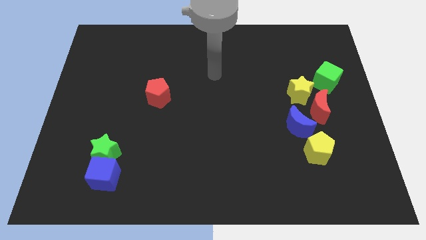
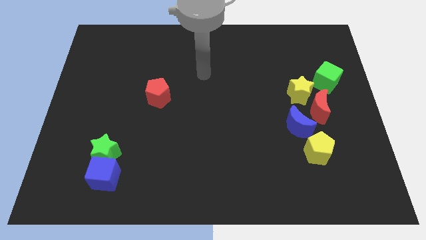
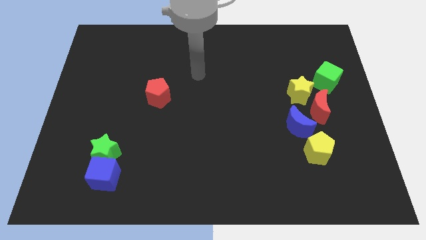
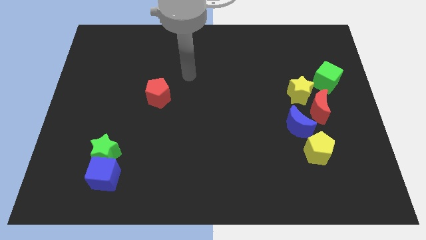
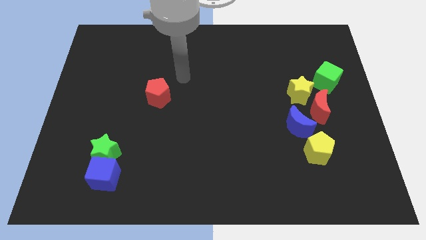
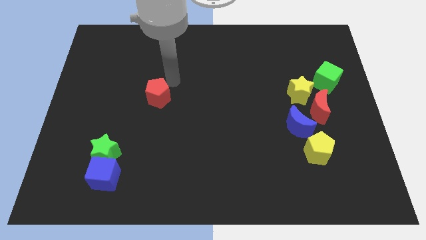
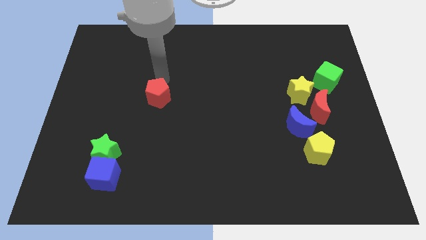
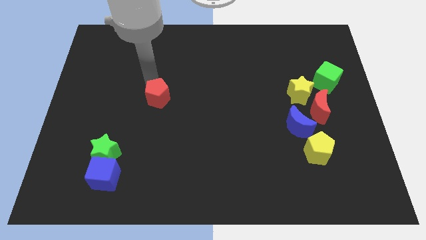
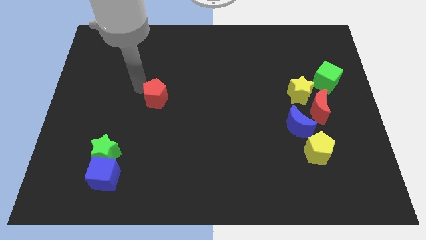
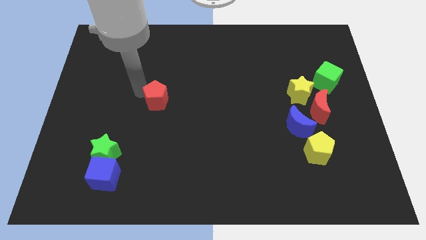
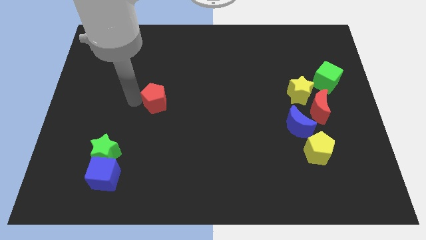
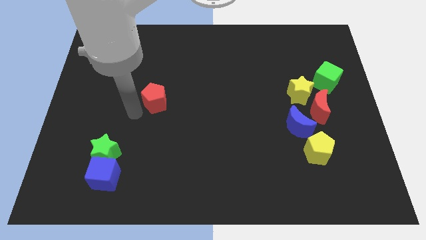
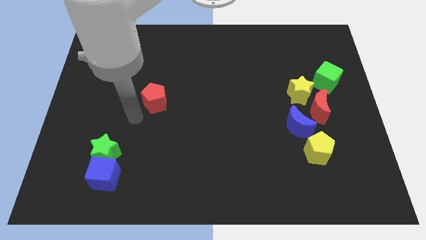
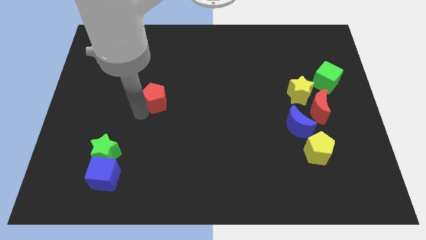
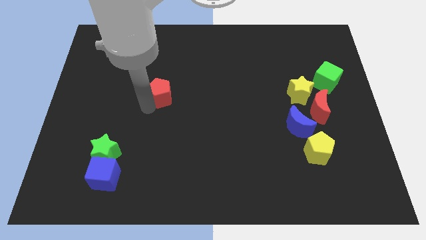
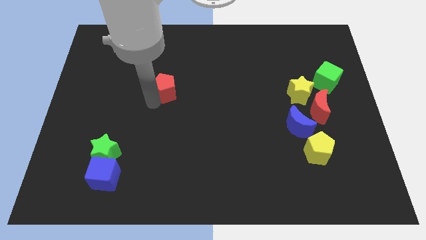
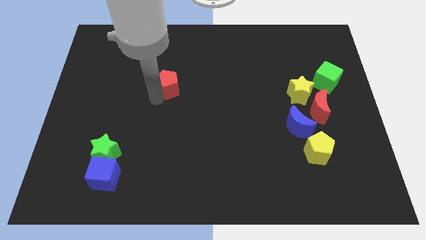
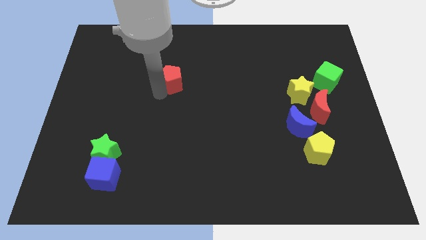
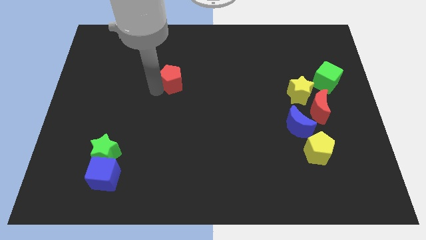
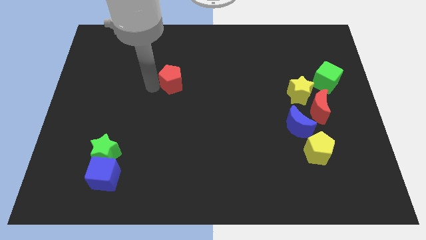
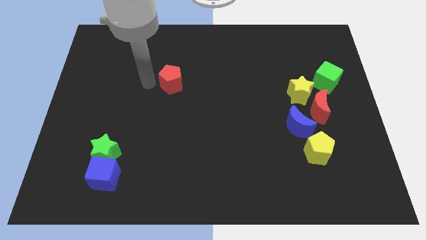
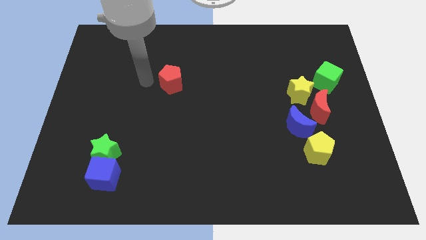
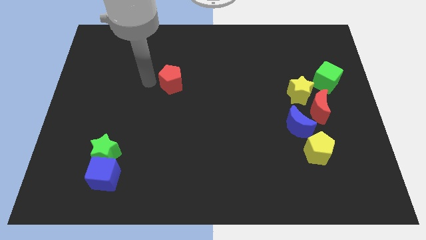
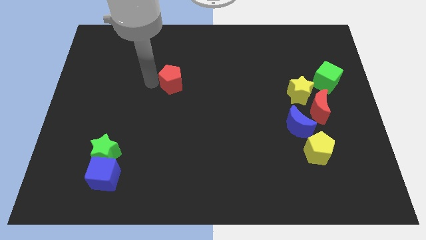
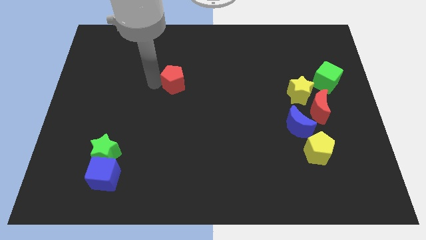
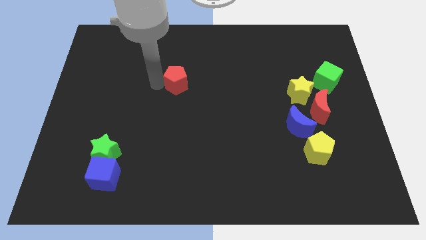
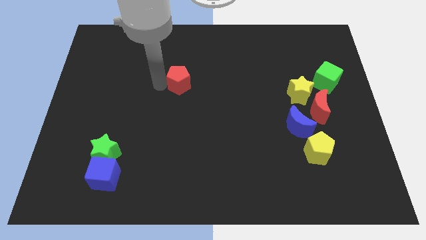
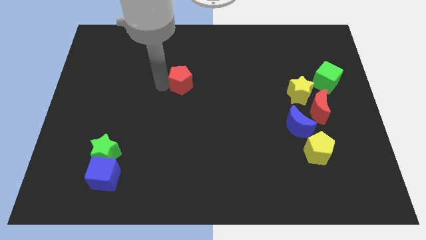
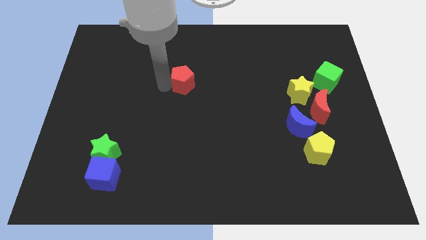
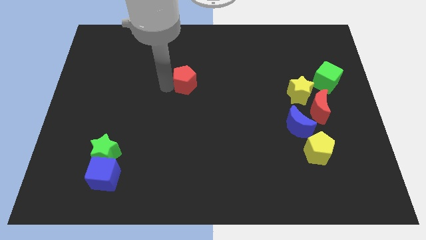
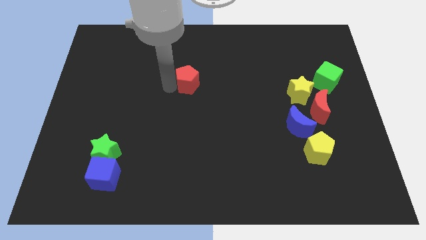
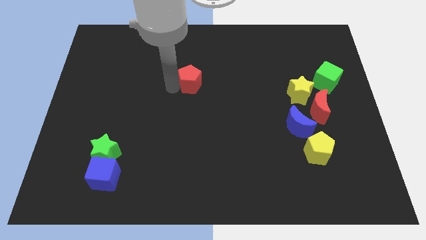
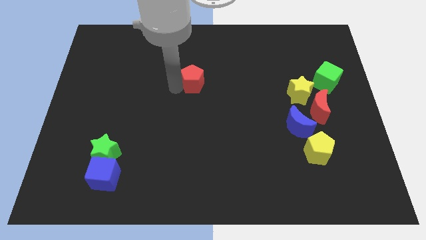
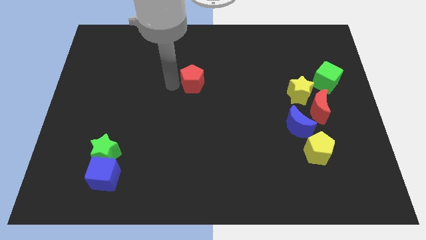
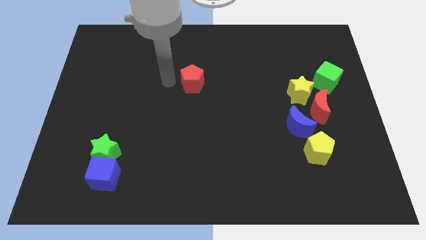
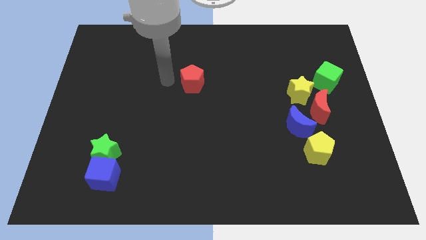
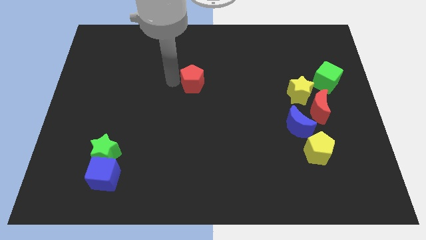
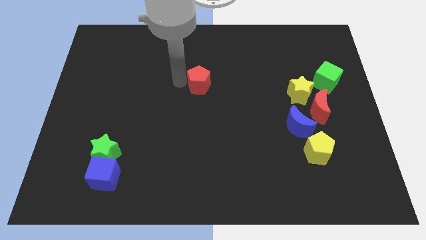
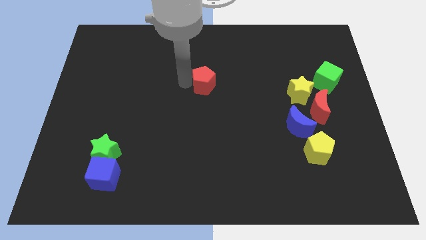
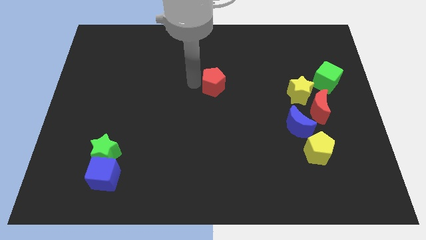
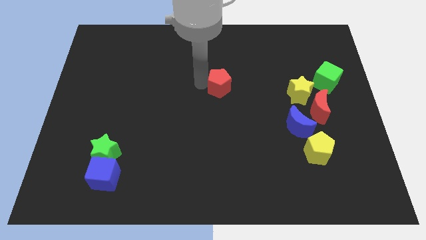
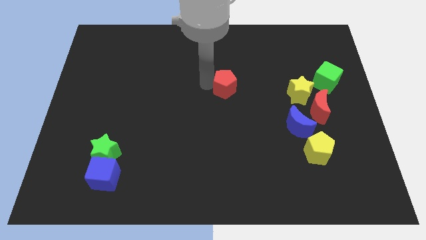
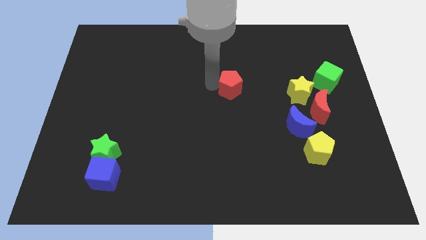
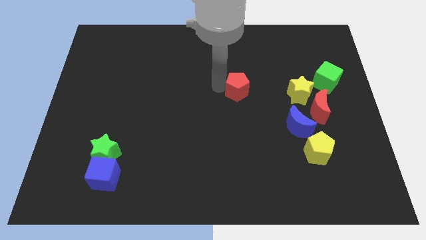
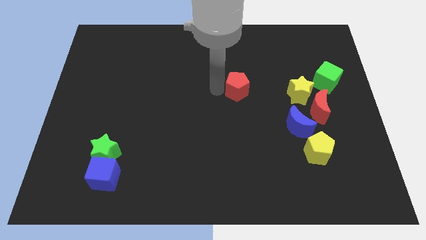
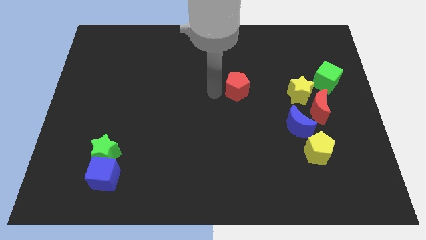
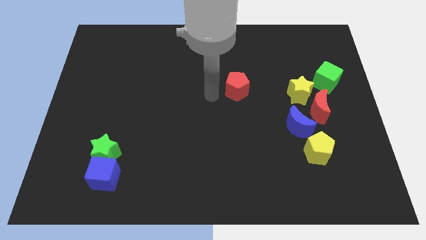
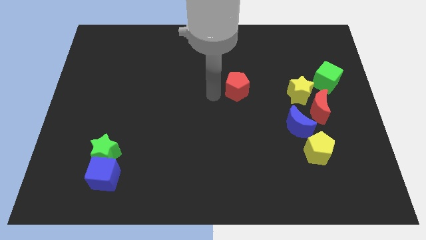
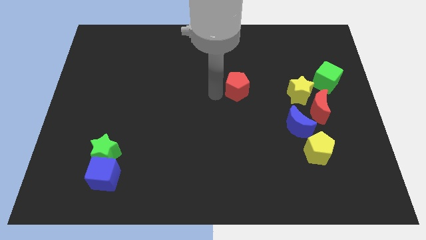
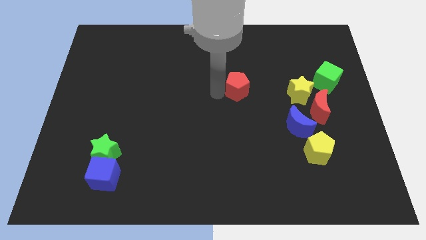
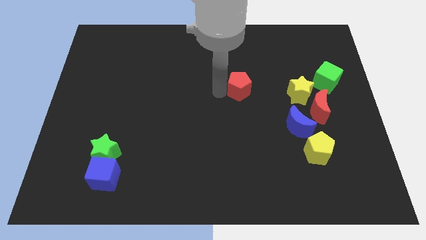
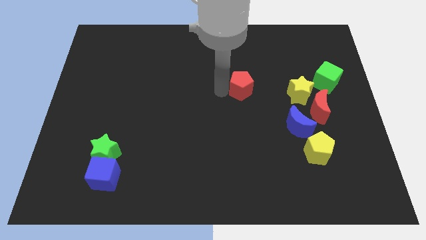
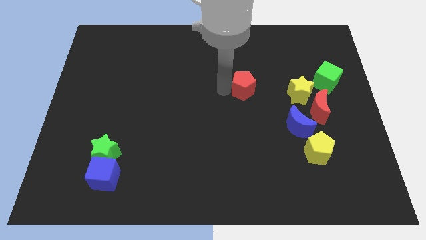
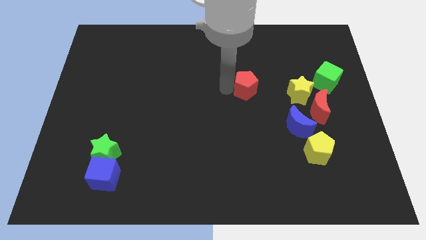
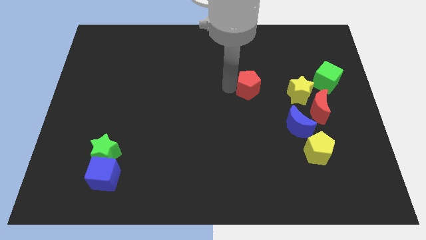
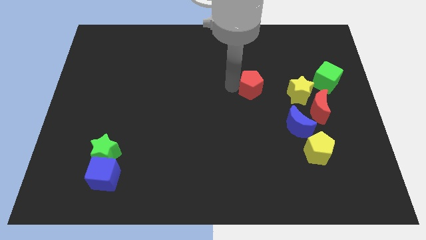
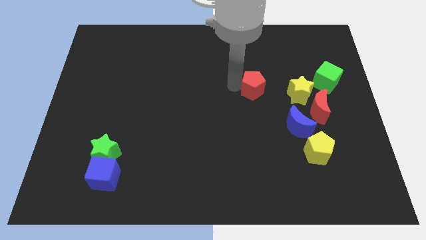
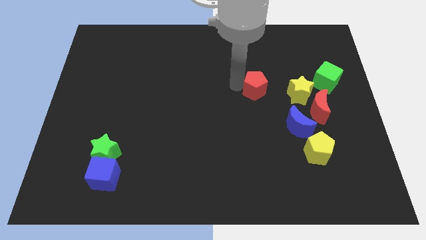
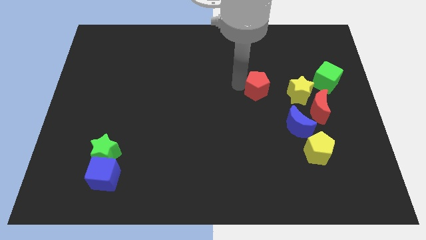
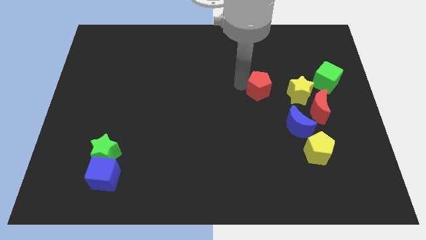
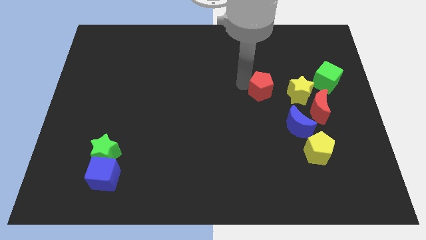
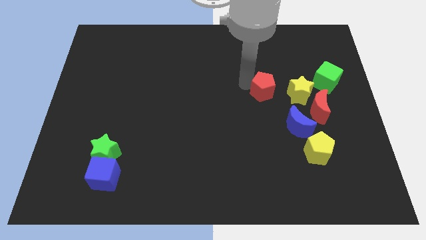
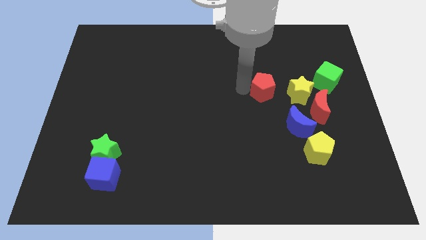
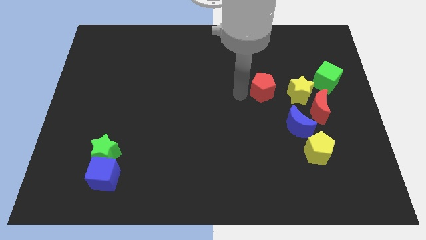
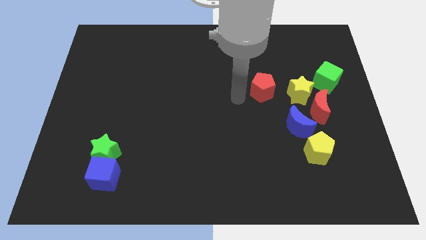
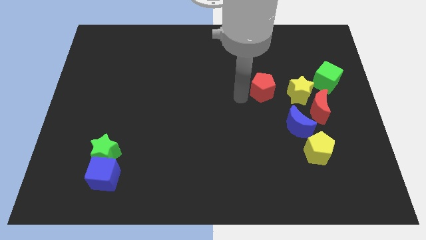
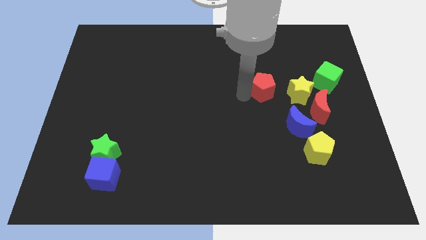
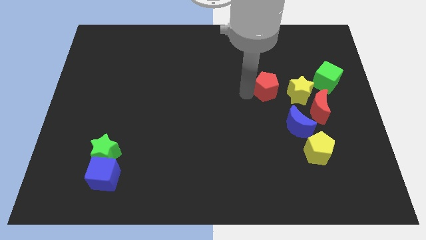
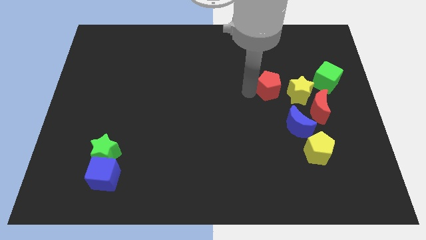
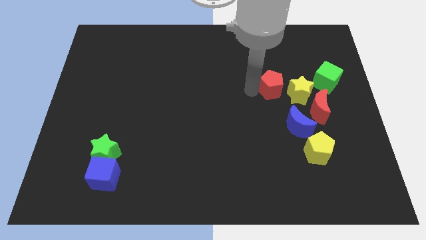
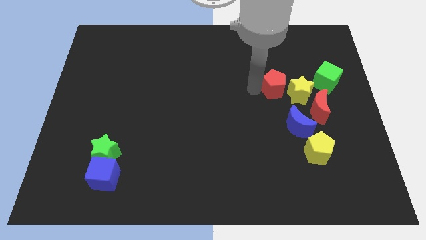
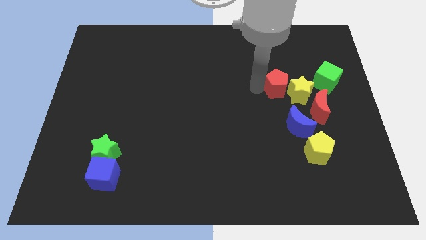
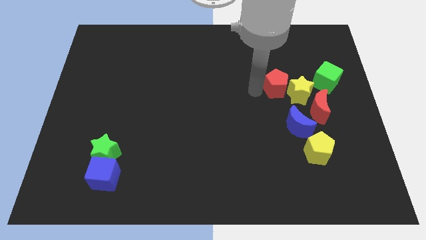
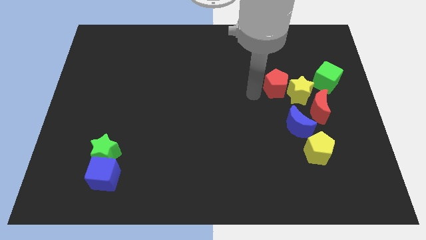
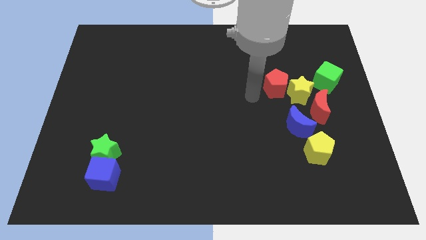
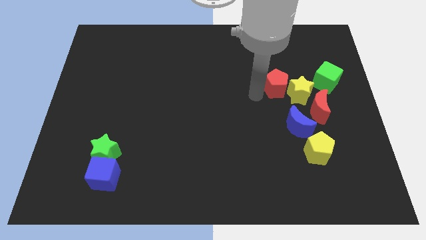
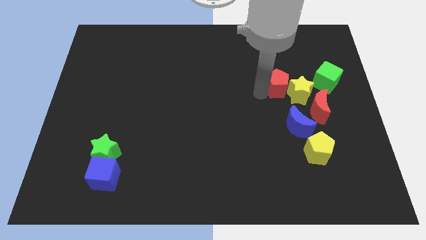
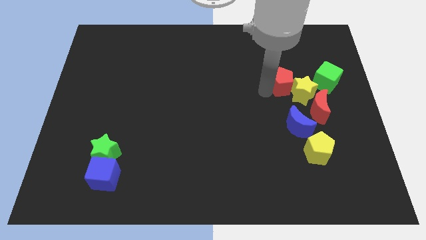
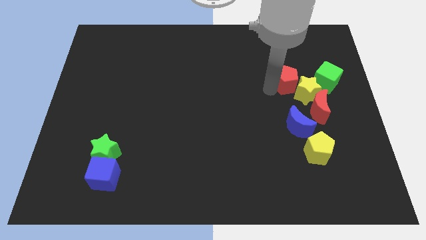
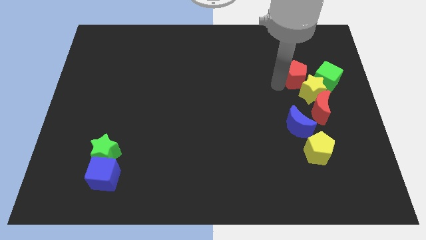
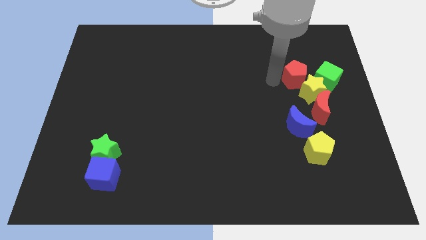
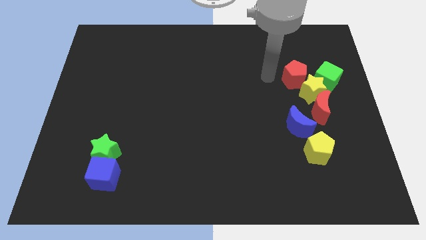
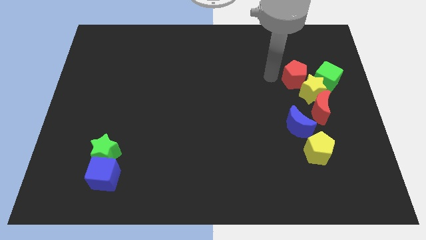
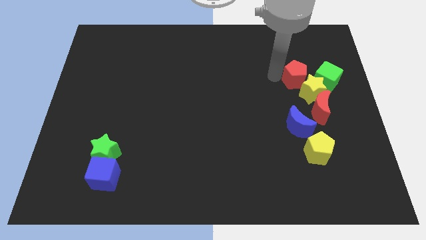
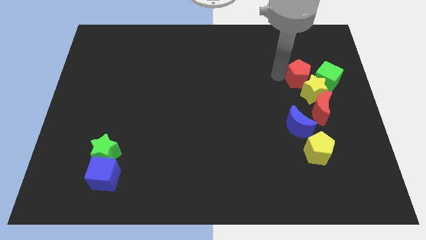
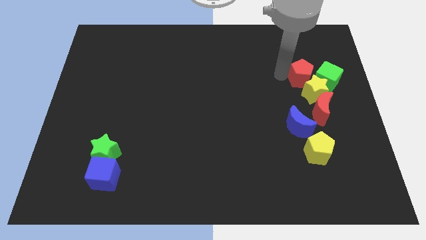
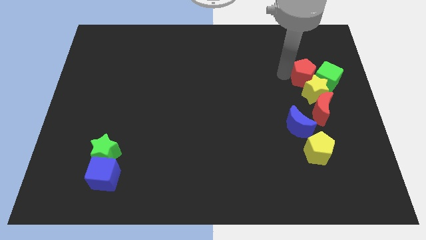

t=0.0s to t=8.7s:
put the red pentagon towards the green cube
